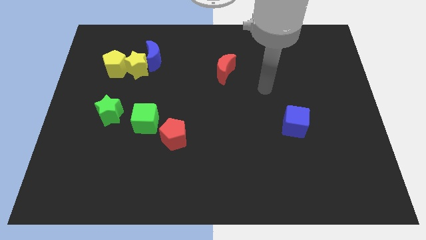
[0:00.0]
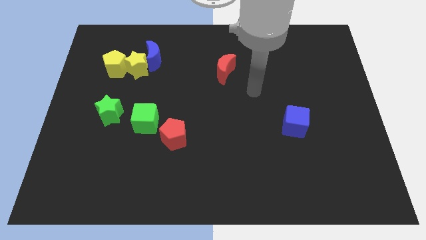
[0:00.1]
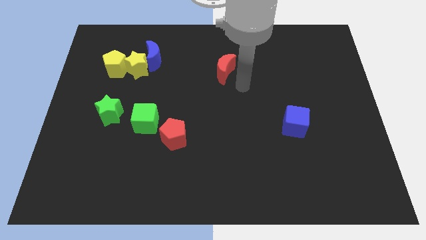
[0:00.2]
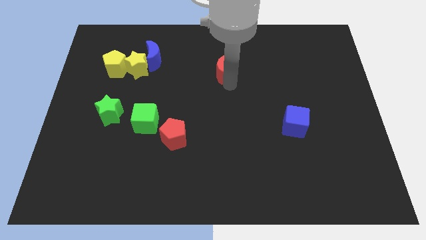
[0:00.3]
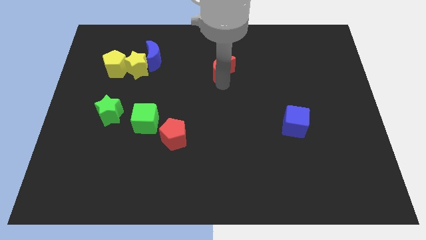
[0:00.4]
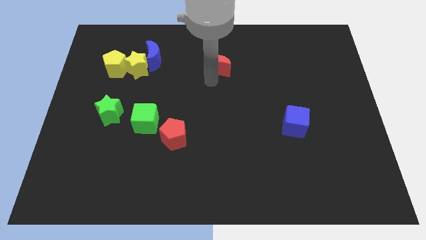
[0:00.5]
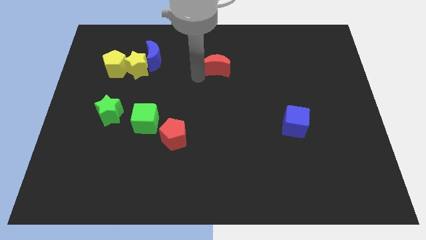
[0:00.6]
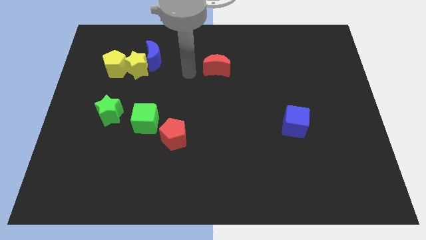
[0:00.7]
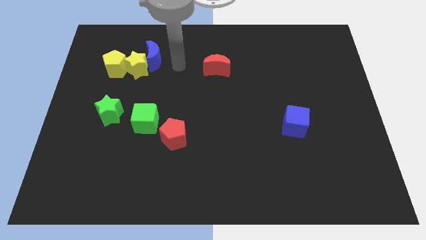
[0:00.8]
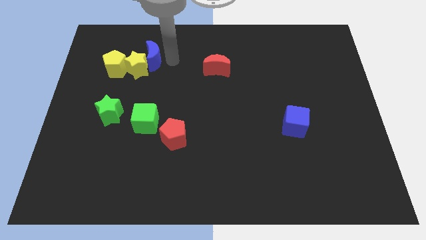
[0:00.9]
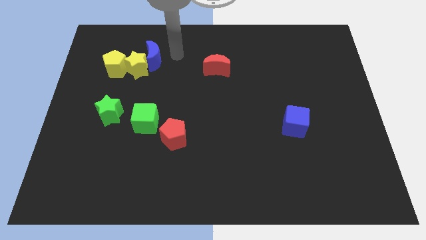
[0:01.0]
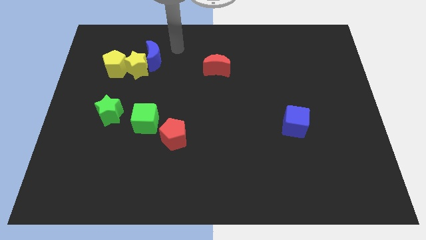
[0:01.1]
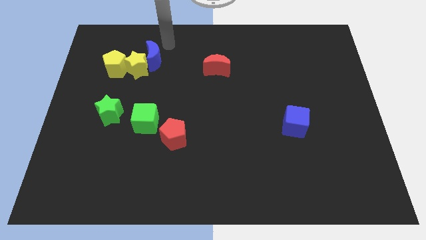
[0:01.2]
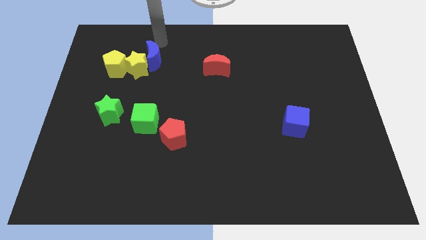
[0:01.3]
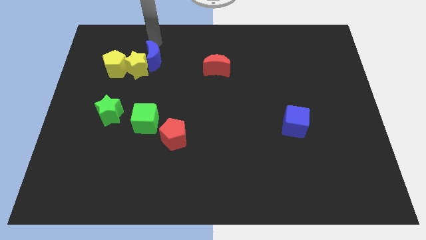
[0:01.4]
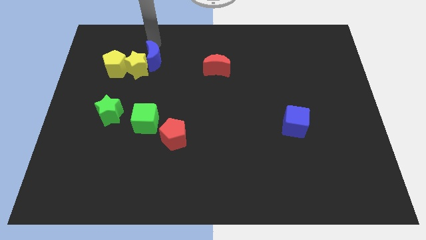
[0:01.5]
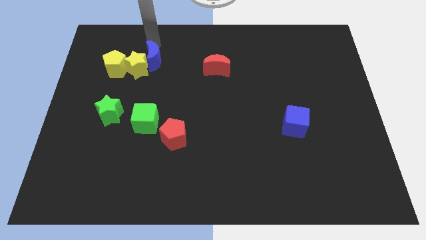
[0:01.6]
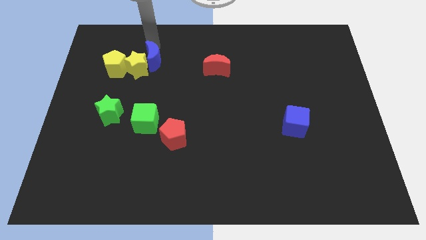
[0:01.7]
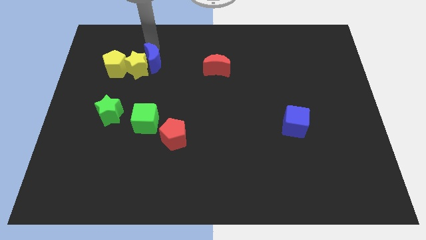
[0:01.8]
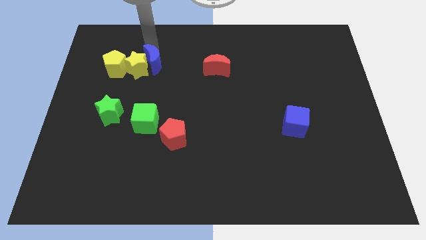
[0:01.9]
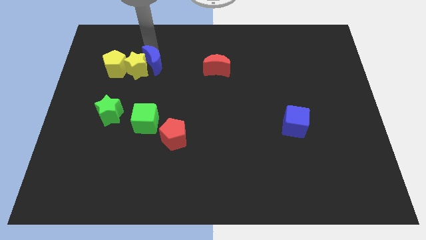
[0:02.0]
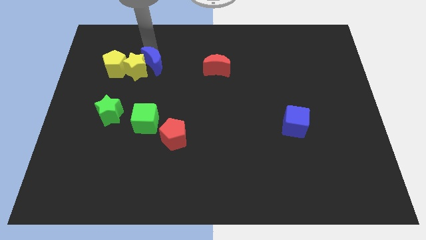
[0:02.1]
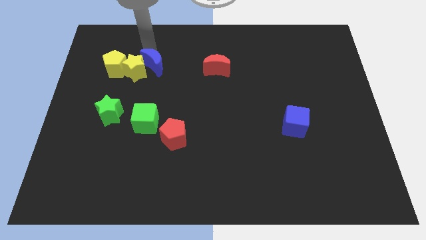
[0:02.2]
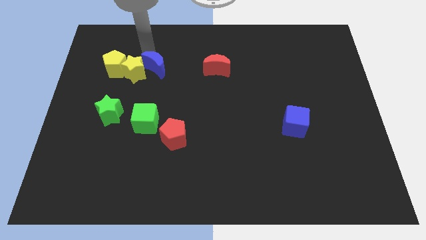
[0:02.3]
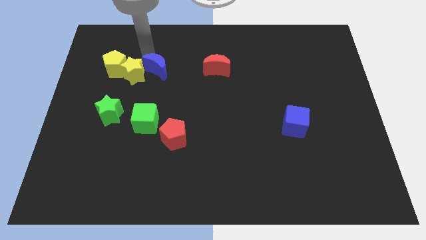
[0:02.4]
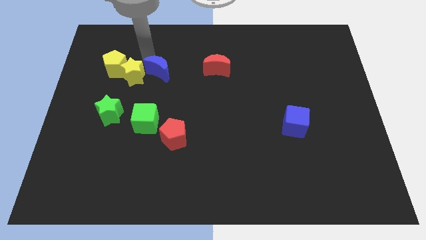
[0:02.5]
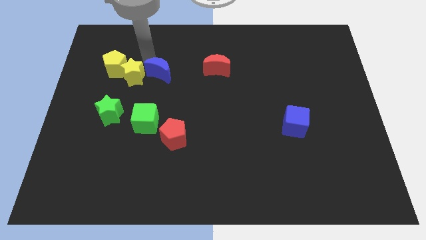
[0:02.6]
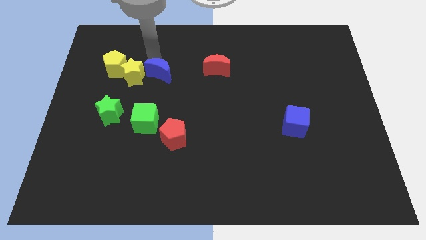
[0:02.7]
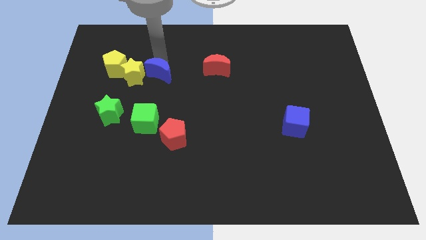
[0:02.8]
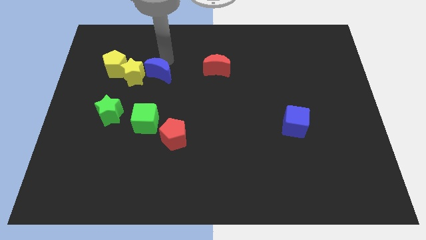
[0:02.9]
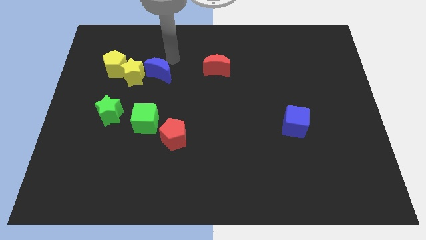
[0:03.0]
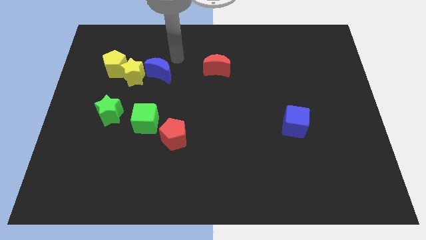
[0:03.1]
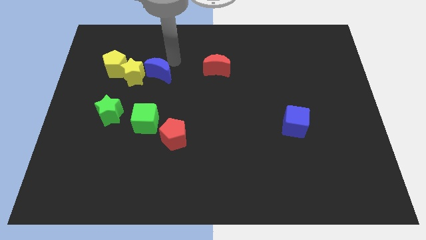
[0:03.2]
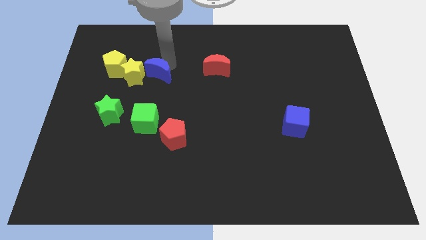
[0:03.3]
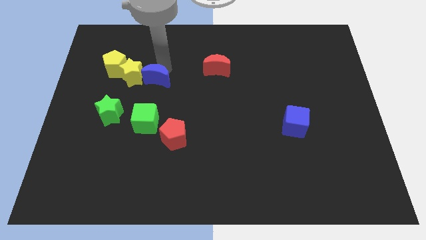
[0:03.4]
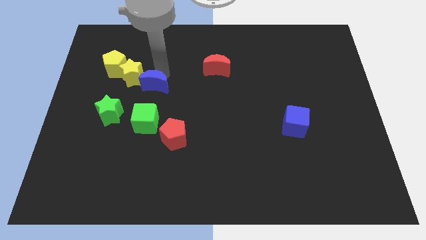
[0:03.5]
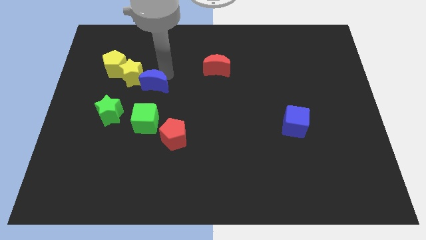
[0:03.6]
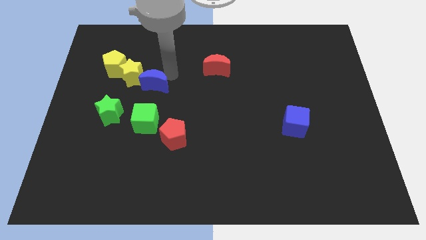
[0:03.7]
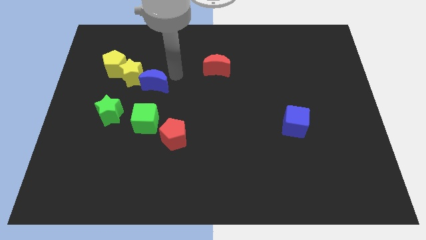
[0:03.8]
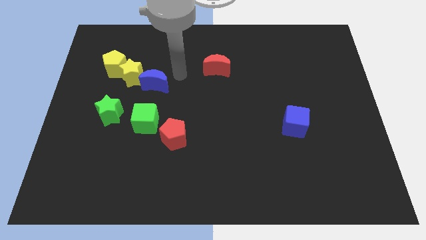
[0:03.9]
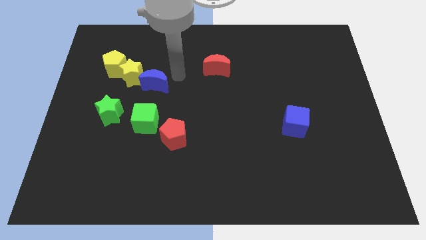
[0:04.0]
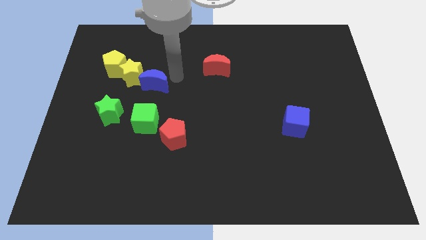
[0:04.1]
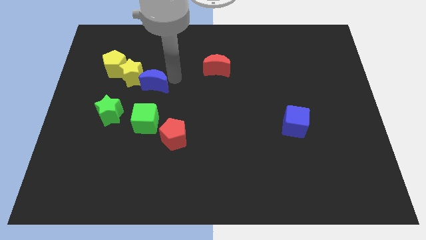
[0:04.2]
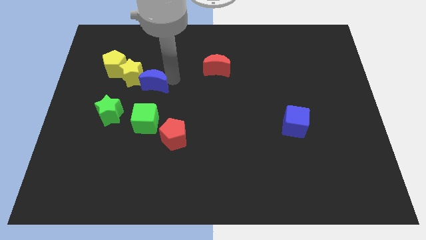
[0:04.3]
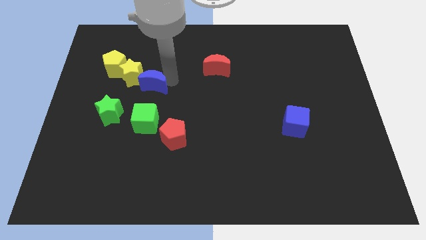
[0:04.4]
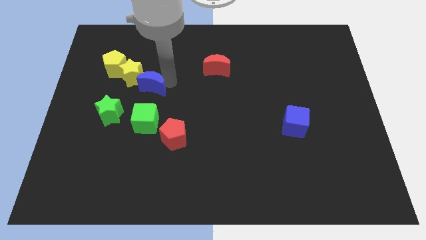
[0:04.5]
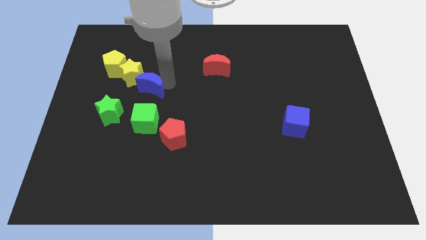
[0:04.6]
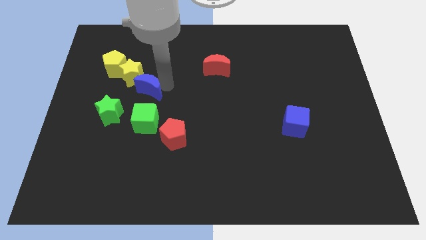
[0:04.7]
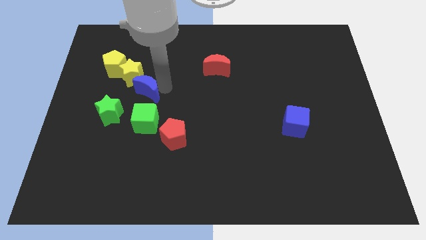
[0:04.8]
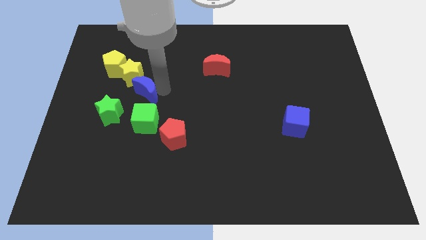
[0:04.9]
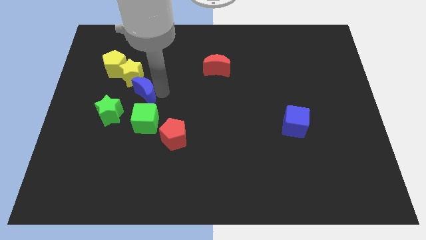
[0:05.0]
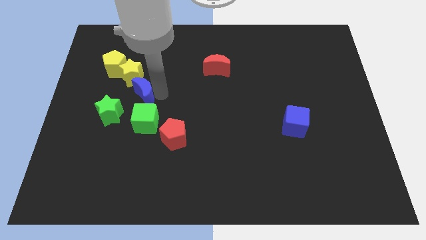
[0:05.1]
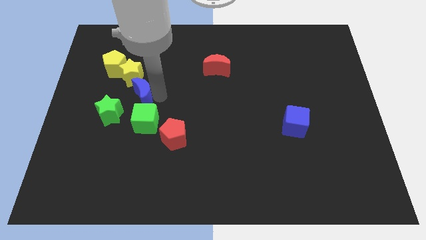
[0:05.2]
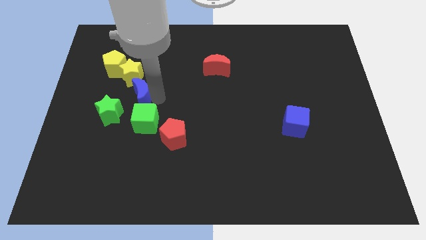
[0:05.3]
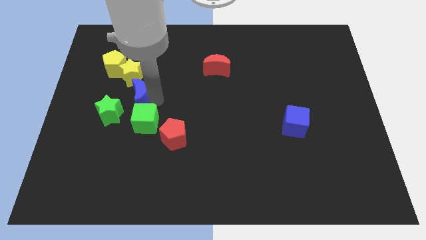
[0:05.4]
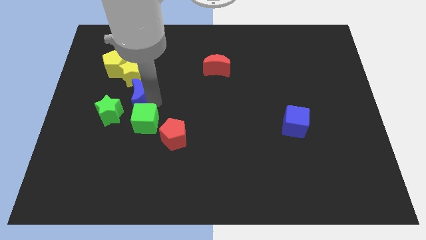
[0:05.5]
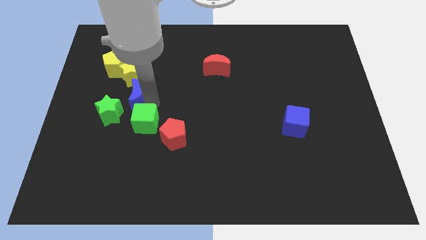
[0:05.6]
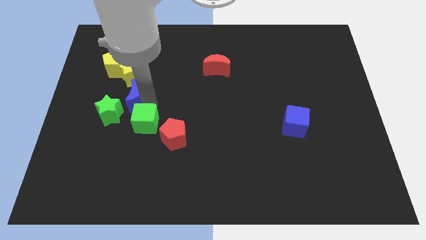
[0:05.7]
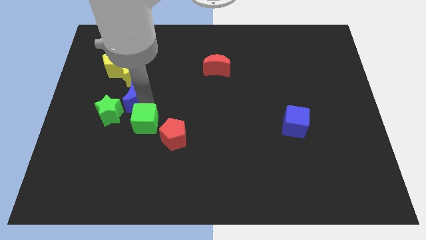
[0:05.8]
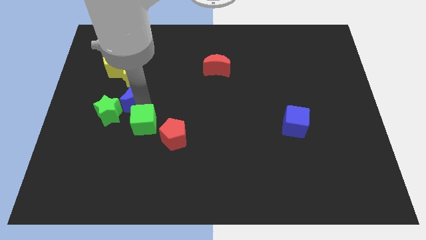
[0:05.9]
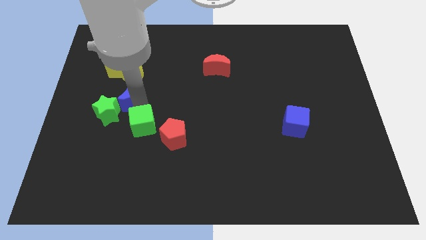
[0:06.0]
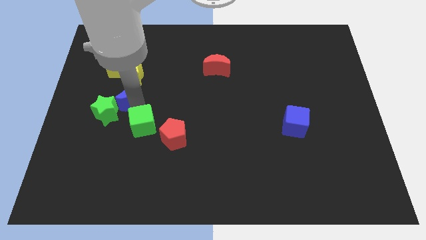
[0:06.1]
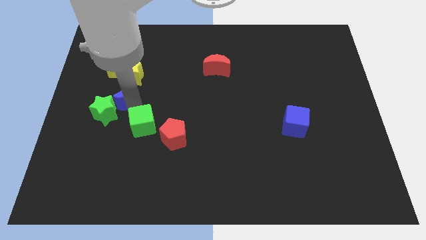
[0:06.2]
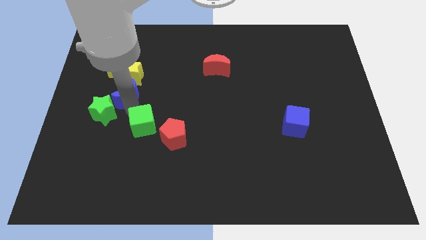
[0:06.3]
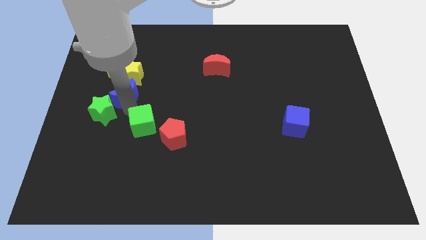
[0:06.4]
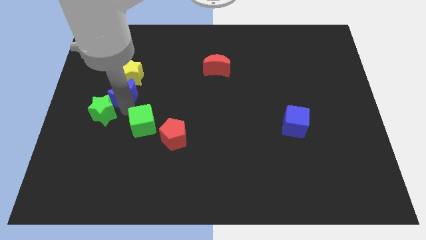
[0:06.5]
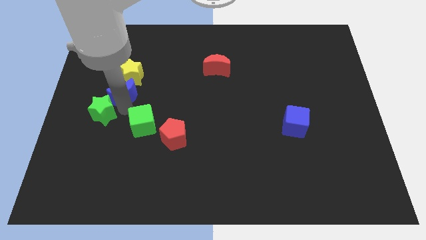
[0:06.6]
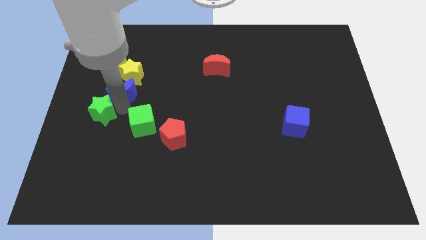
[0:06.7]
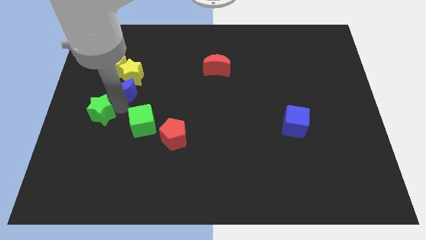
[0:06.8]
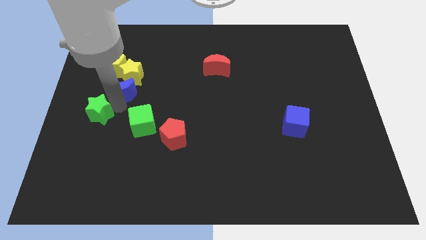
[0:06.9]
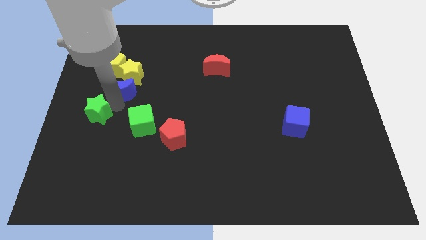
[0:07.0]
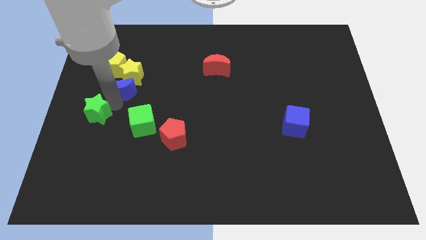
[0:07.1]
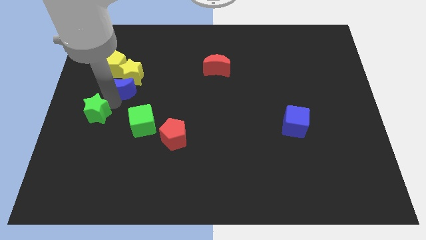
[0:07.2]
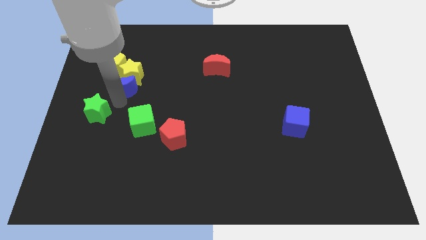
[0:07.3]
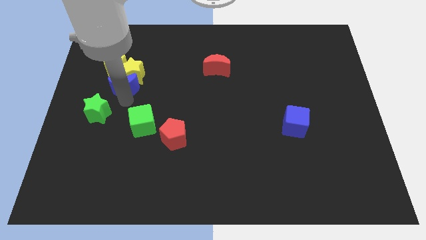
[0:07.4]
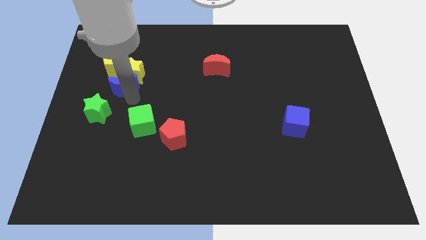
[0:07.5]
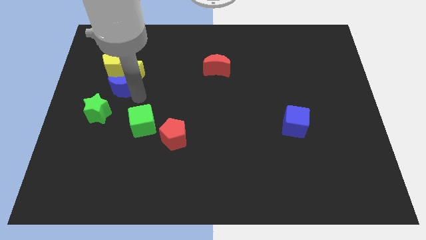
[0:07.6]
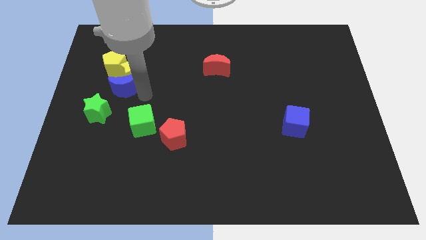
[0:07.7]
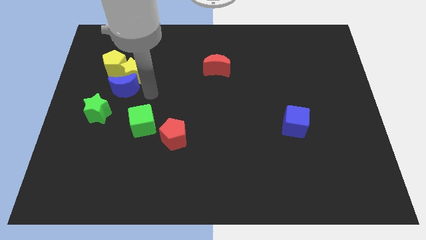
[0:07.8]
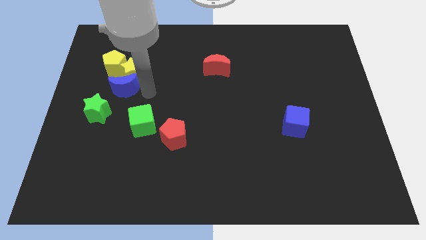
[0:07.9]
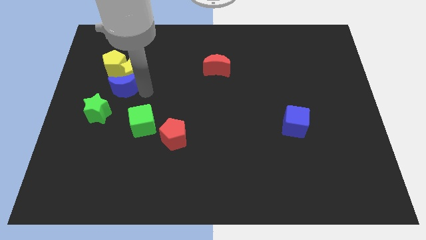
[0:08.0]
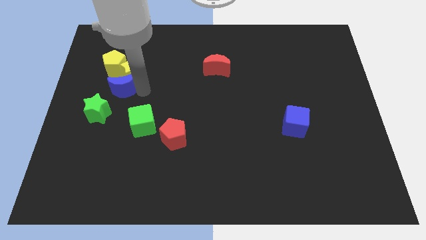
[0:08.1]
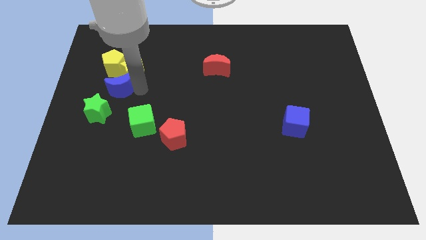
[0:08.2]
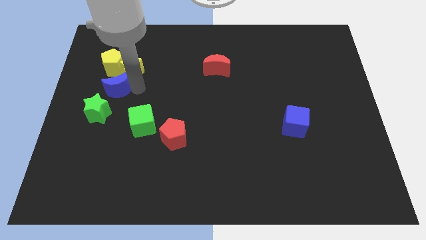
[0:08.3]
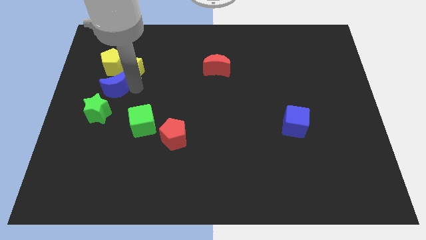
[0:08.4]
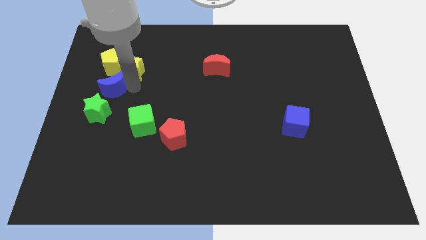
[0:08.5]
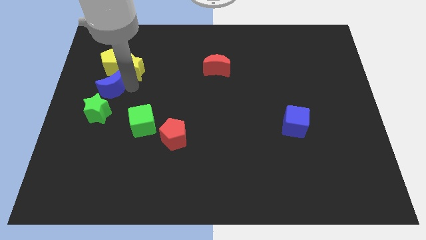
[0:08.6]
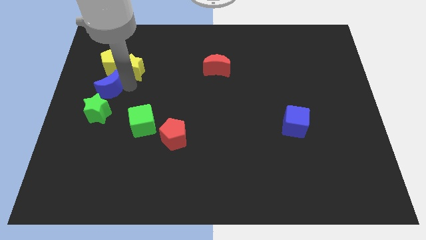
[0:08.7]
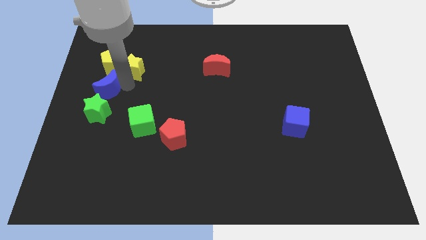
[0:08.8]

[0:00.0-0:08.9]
slide the blue moon to the left side of the board
